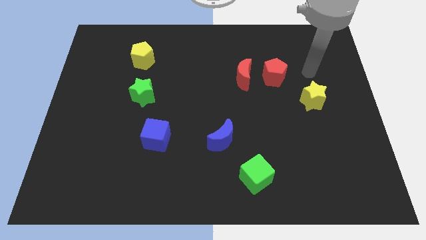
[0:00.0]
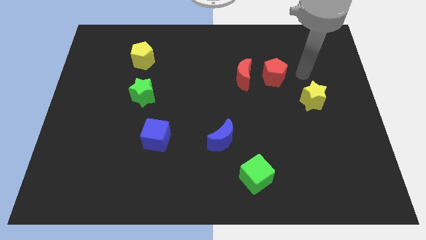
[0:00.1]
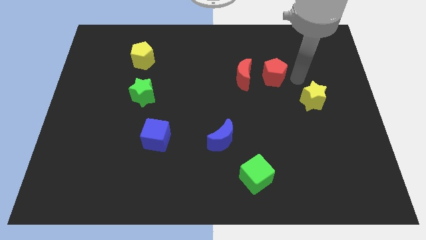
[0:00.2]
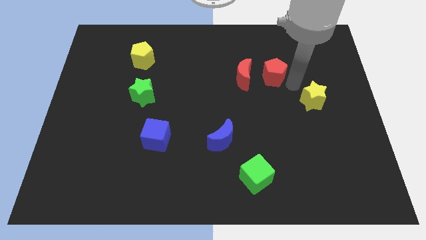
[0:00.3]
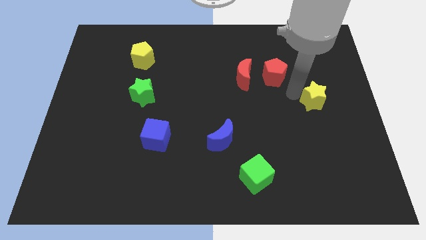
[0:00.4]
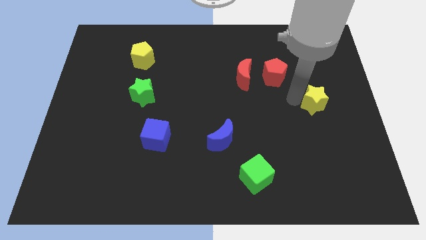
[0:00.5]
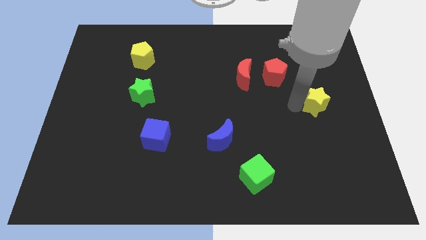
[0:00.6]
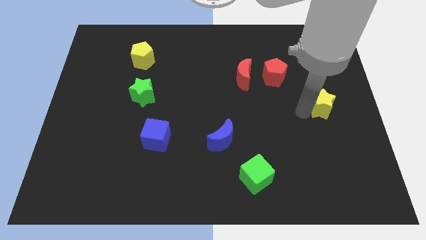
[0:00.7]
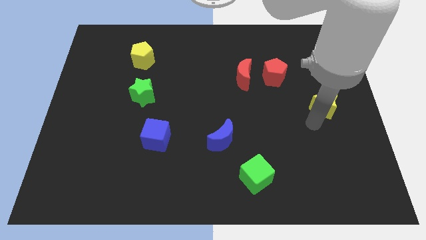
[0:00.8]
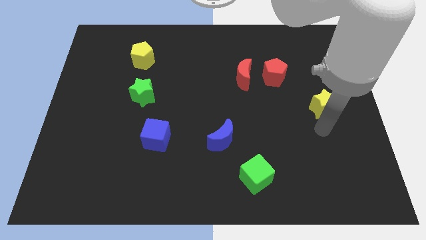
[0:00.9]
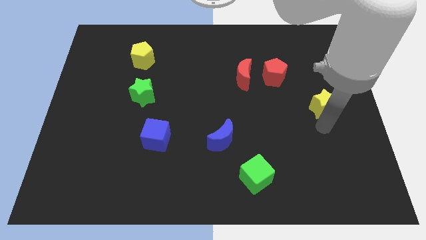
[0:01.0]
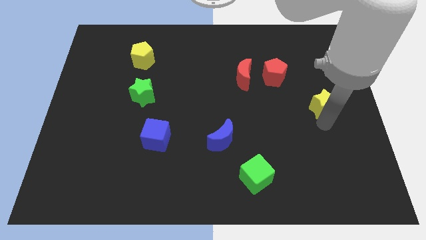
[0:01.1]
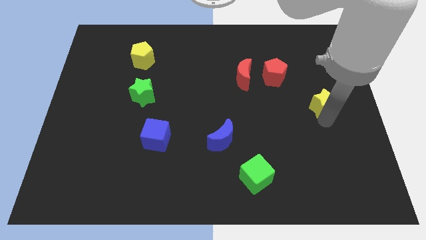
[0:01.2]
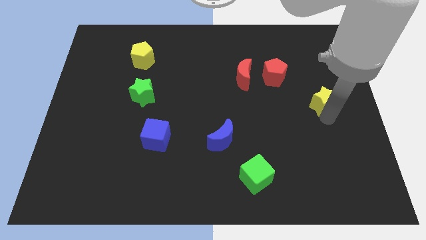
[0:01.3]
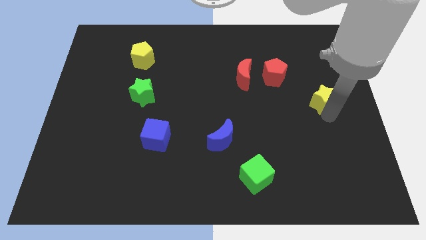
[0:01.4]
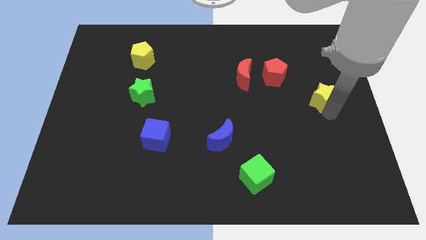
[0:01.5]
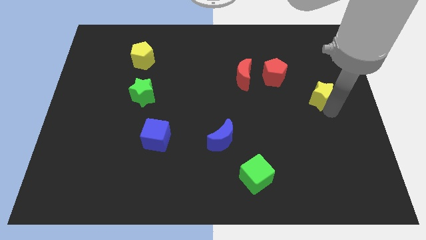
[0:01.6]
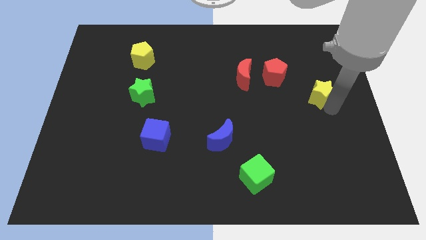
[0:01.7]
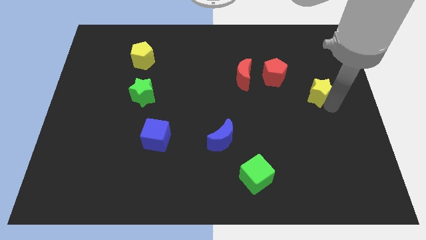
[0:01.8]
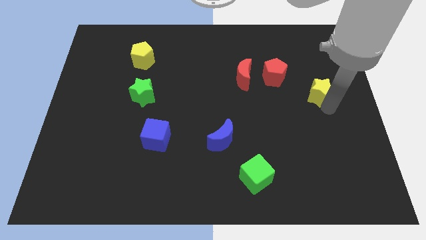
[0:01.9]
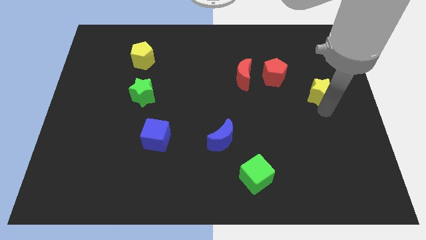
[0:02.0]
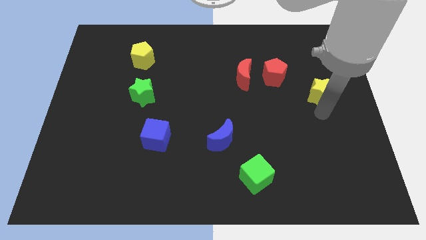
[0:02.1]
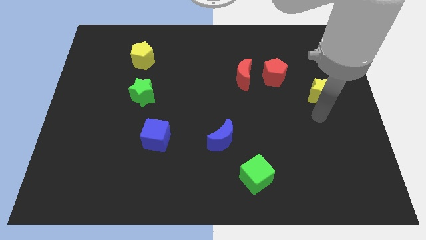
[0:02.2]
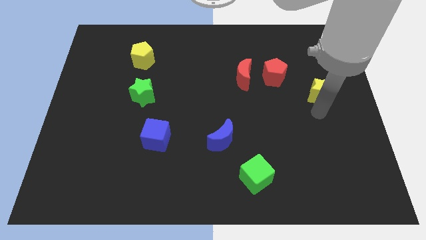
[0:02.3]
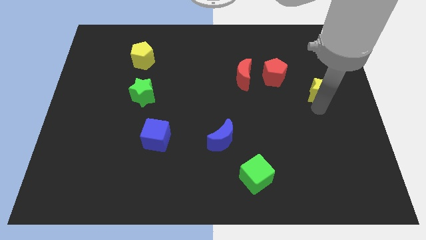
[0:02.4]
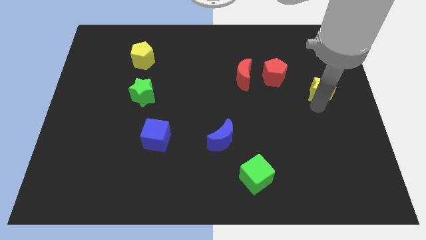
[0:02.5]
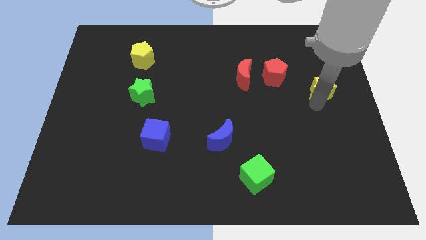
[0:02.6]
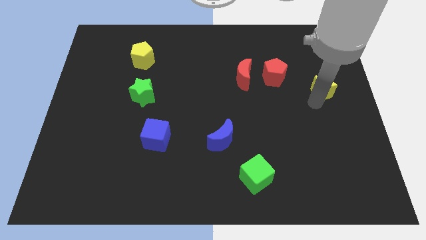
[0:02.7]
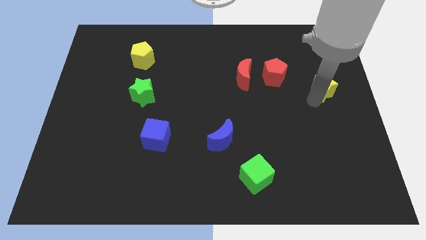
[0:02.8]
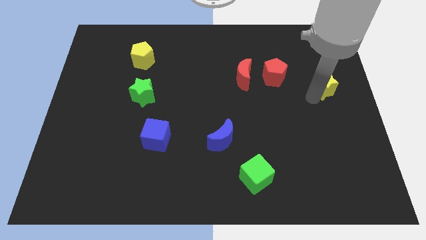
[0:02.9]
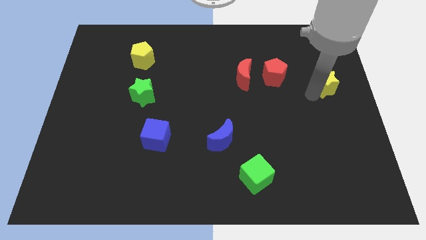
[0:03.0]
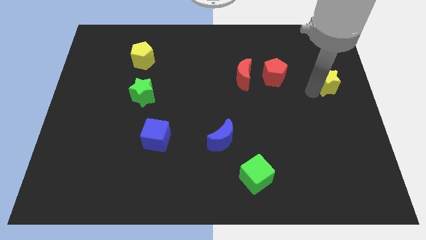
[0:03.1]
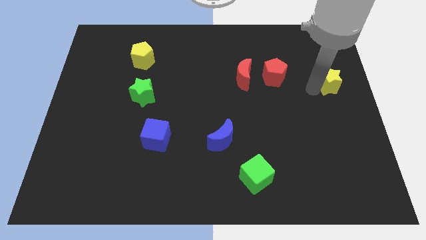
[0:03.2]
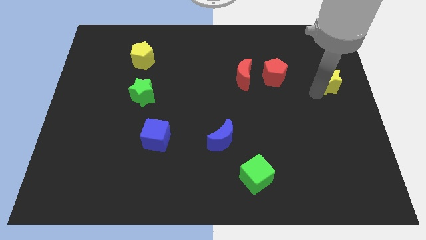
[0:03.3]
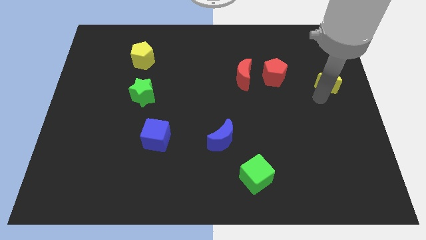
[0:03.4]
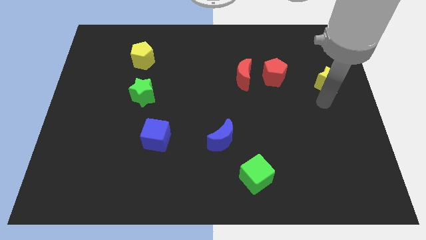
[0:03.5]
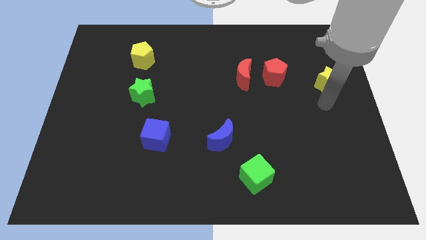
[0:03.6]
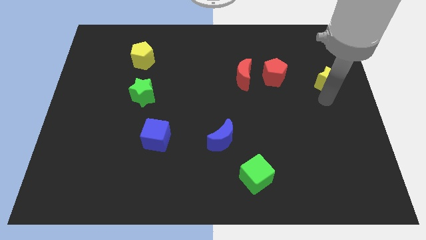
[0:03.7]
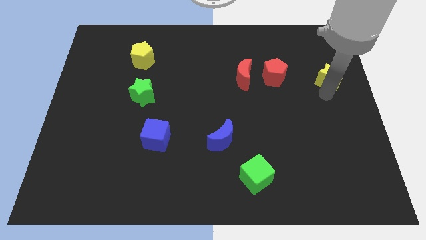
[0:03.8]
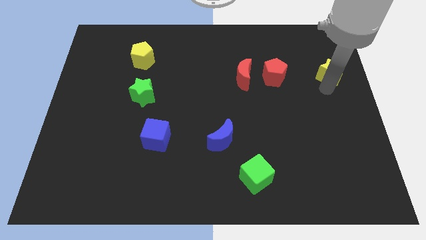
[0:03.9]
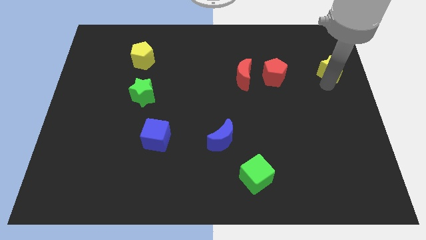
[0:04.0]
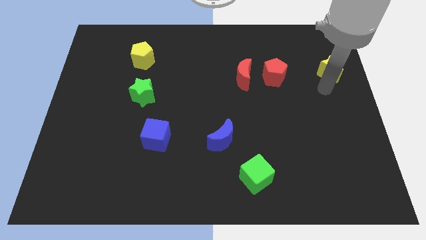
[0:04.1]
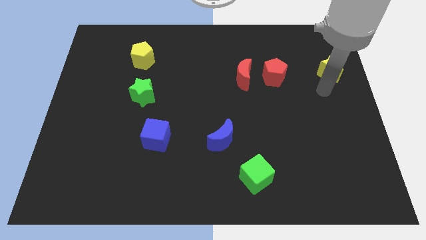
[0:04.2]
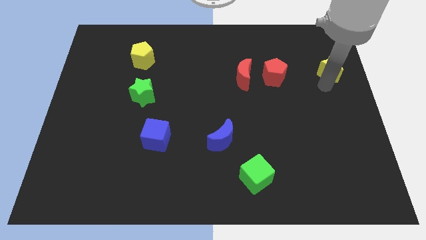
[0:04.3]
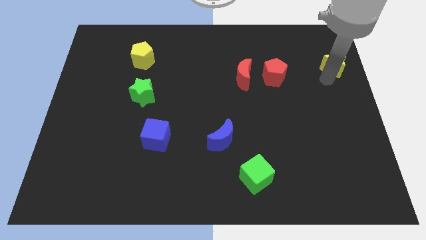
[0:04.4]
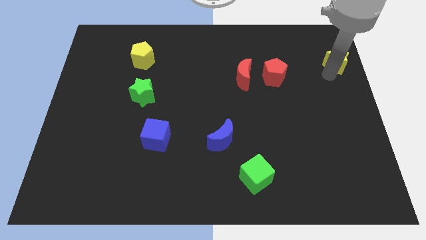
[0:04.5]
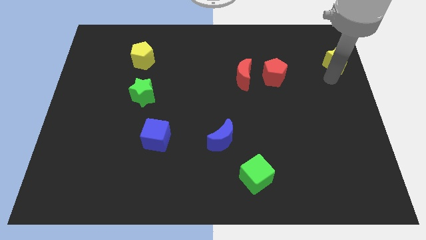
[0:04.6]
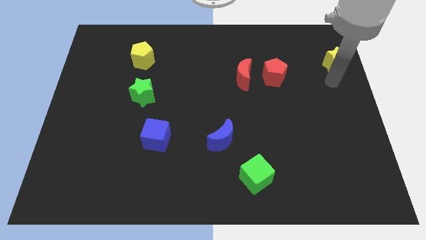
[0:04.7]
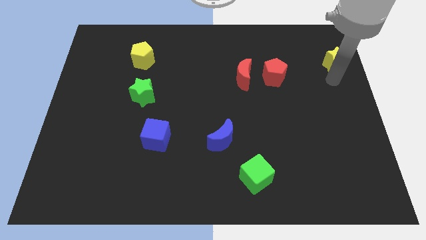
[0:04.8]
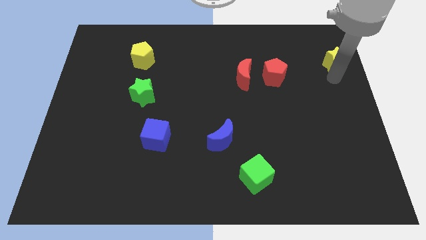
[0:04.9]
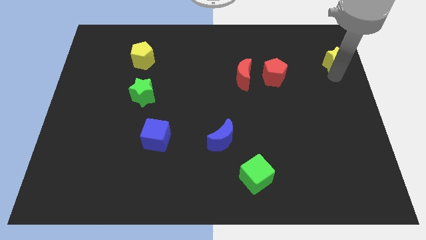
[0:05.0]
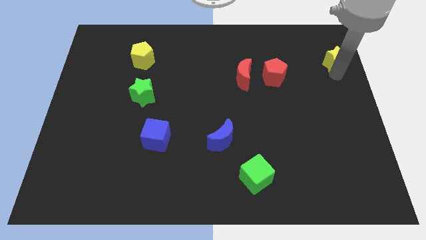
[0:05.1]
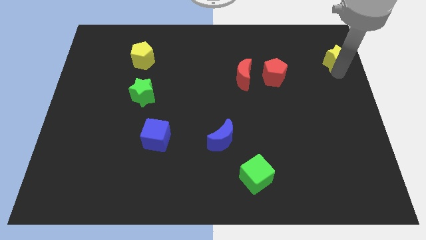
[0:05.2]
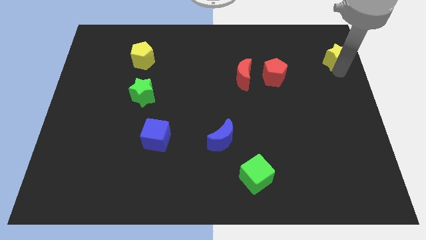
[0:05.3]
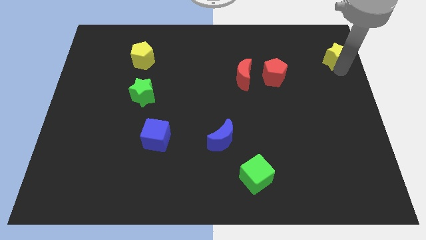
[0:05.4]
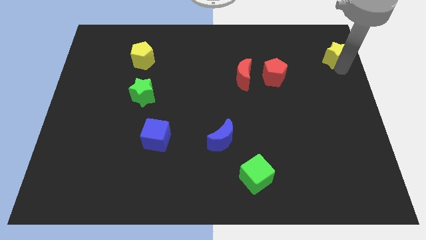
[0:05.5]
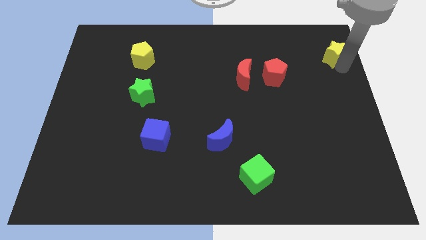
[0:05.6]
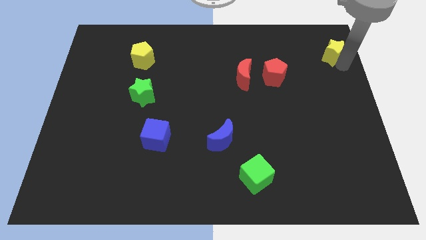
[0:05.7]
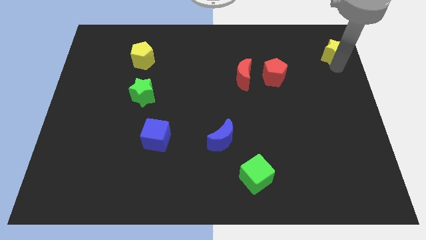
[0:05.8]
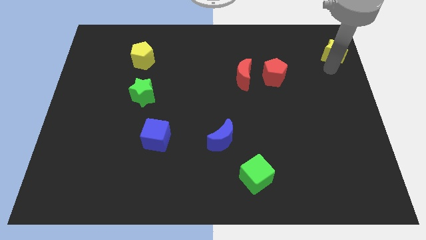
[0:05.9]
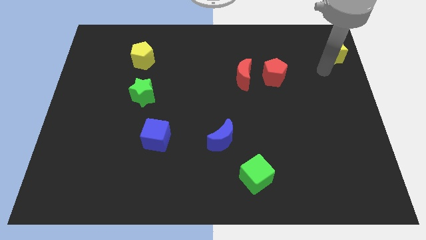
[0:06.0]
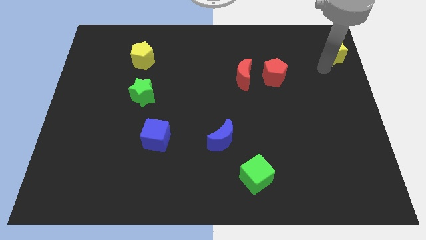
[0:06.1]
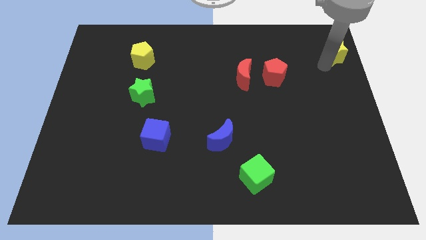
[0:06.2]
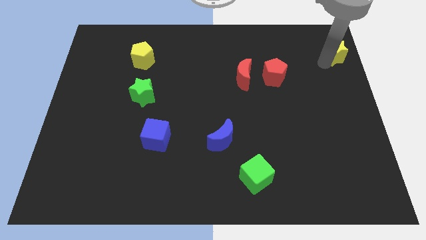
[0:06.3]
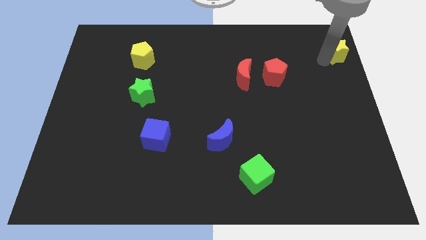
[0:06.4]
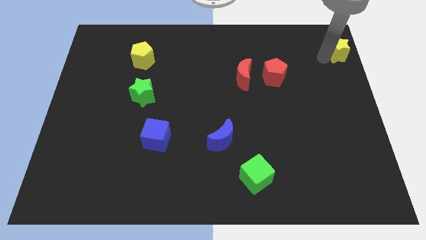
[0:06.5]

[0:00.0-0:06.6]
put the yellow star to the upper right corner

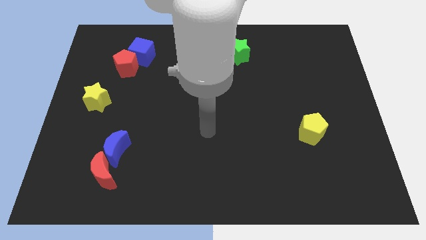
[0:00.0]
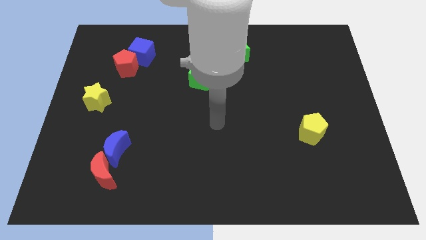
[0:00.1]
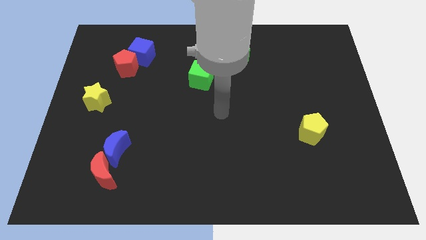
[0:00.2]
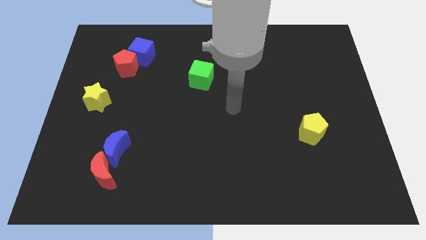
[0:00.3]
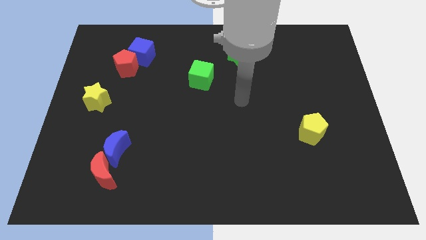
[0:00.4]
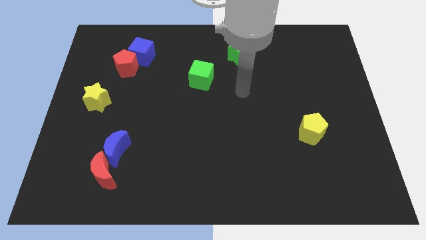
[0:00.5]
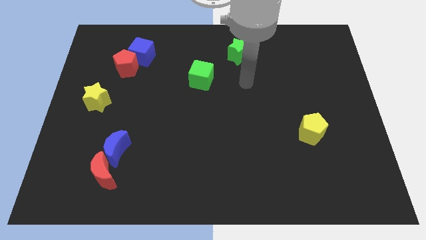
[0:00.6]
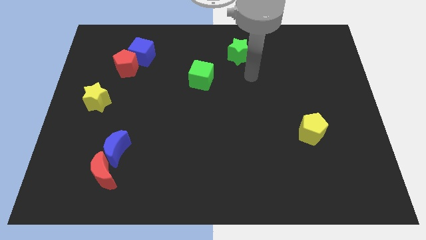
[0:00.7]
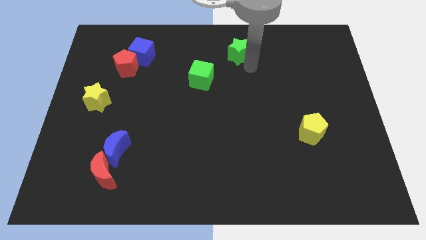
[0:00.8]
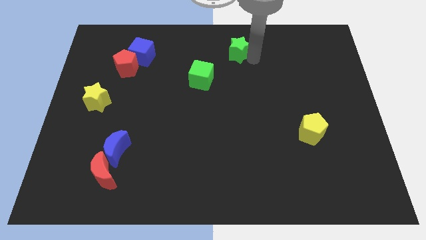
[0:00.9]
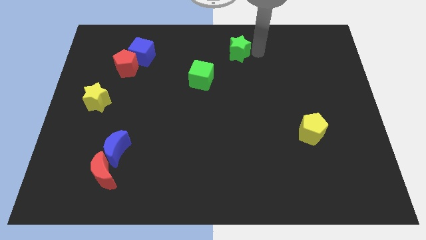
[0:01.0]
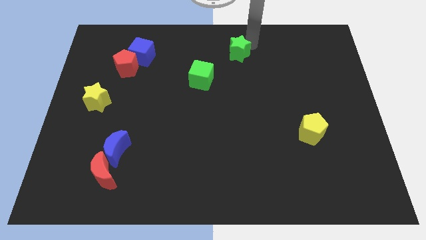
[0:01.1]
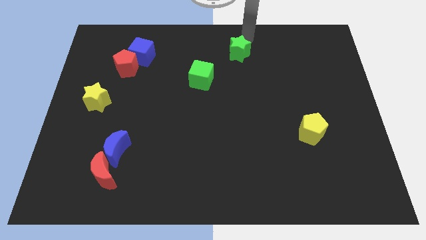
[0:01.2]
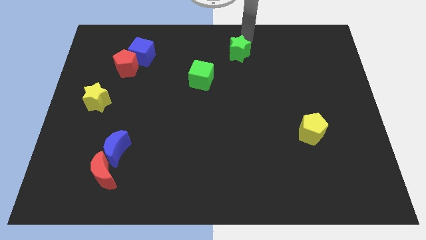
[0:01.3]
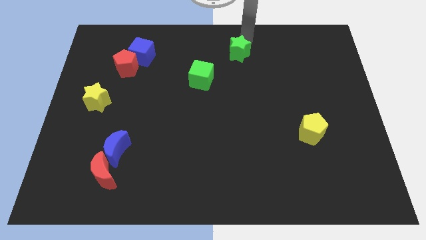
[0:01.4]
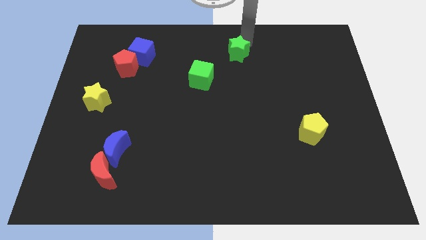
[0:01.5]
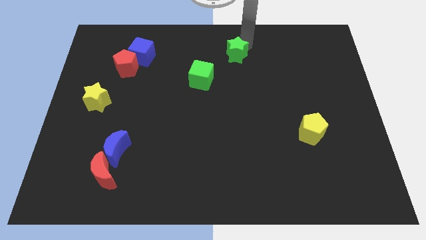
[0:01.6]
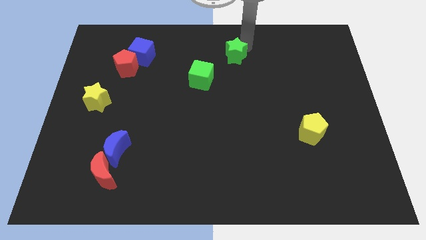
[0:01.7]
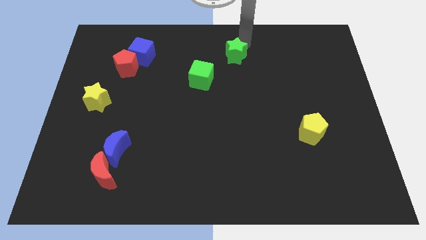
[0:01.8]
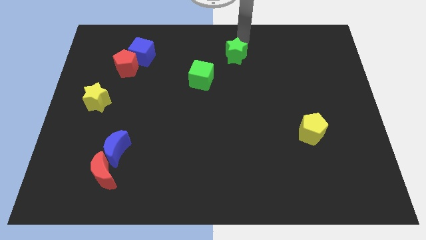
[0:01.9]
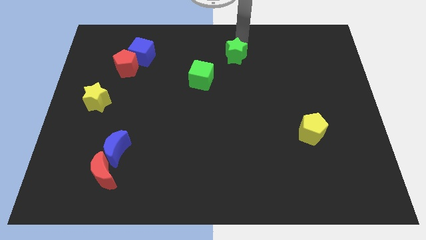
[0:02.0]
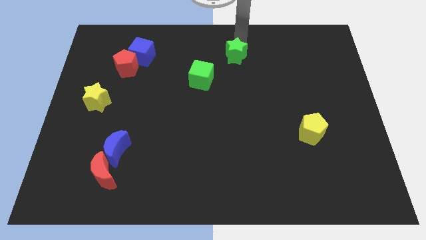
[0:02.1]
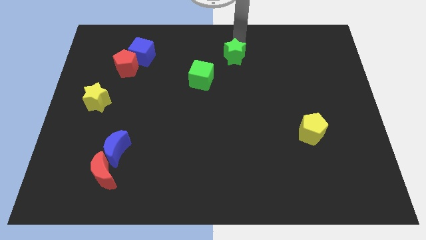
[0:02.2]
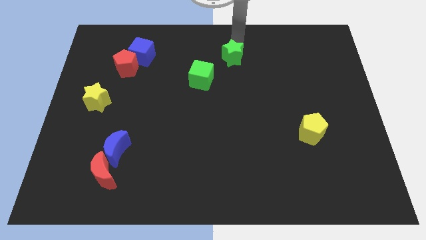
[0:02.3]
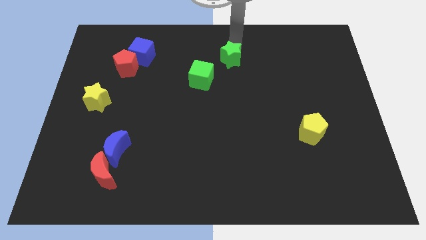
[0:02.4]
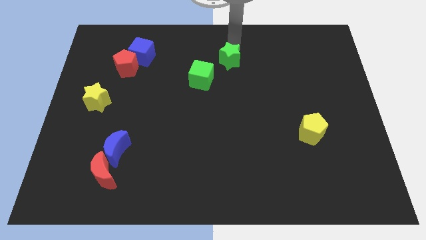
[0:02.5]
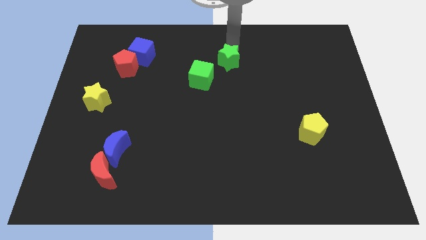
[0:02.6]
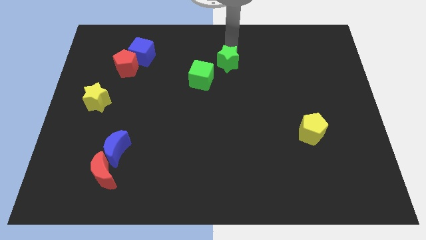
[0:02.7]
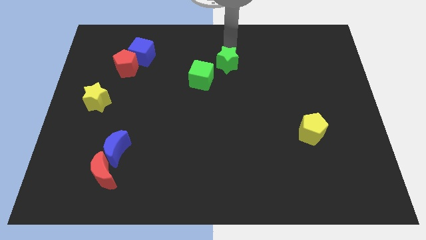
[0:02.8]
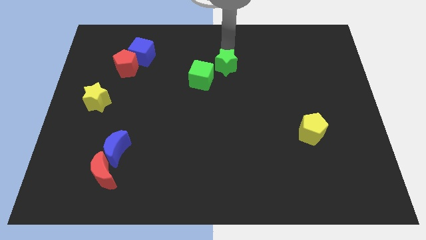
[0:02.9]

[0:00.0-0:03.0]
push the green star to the center of the board
